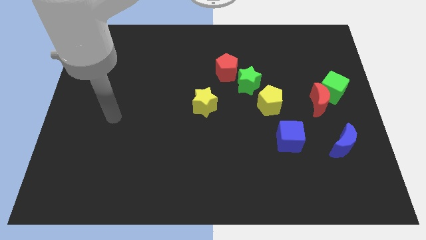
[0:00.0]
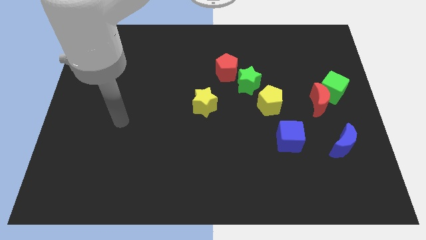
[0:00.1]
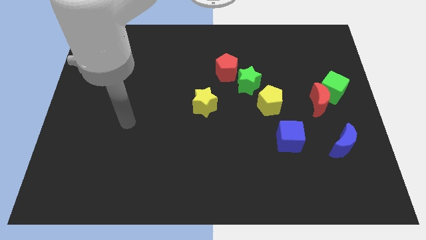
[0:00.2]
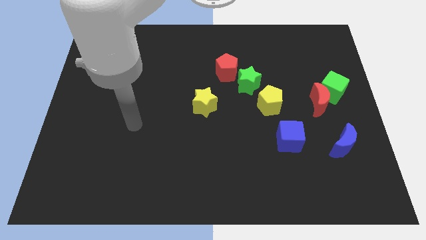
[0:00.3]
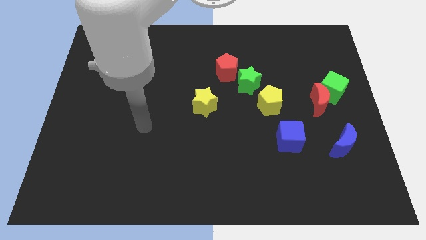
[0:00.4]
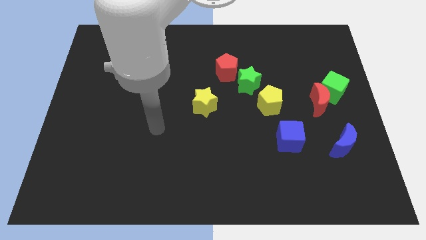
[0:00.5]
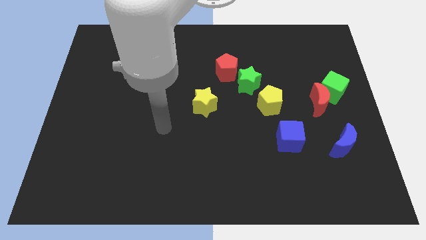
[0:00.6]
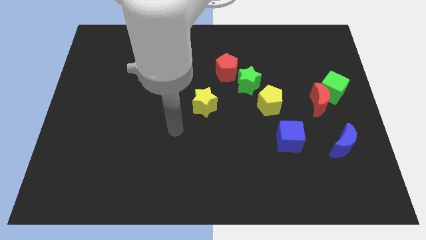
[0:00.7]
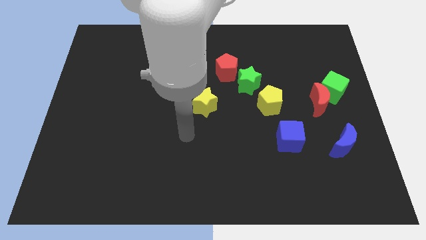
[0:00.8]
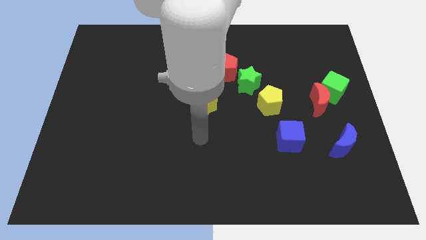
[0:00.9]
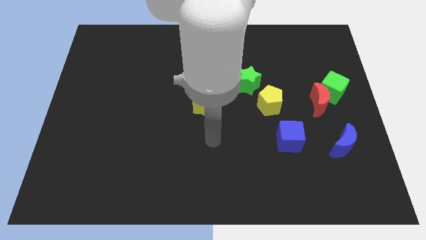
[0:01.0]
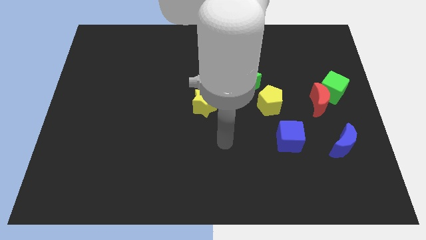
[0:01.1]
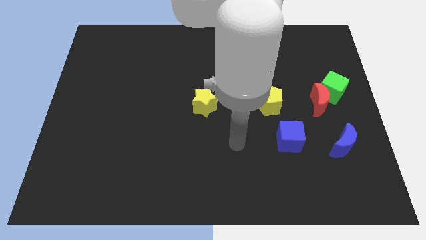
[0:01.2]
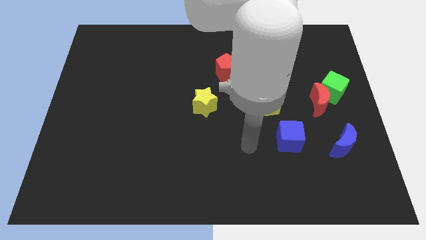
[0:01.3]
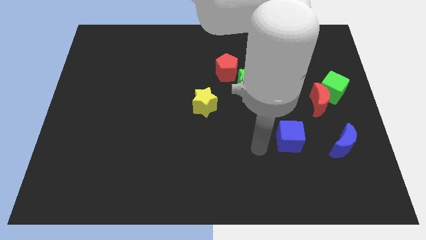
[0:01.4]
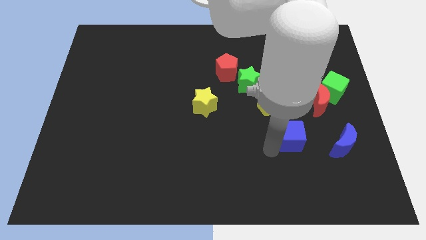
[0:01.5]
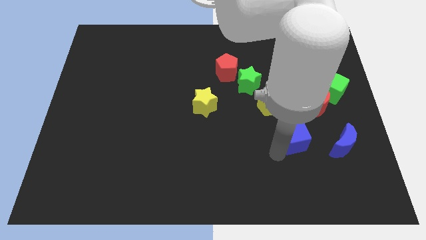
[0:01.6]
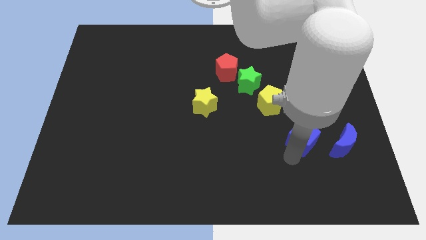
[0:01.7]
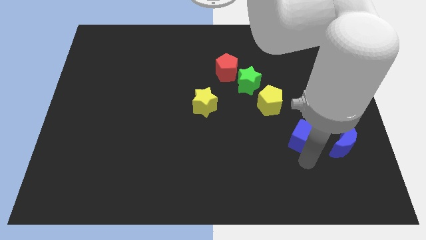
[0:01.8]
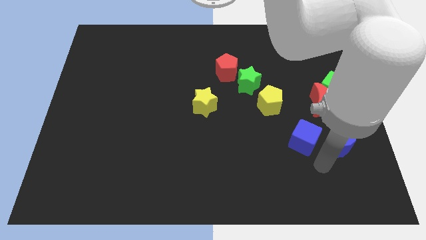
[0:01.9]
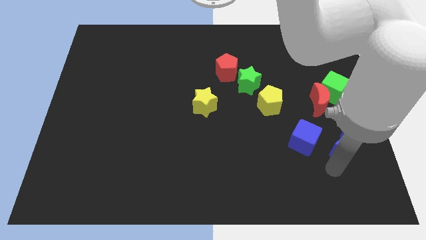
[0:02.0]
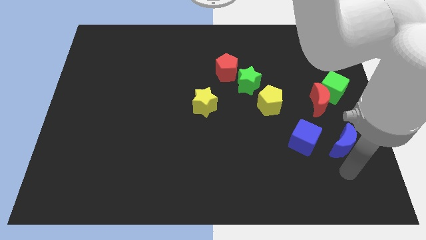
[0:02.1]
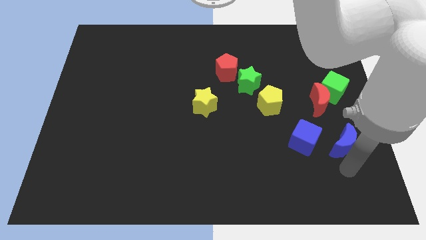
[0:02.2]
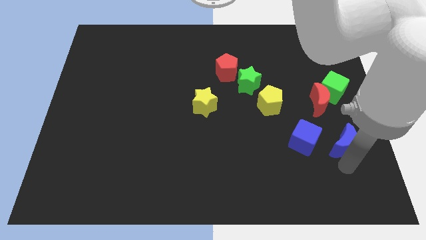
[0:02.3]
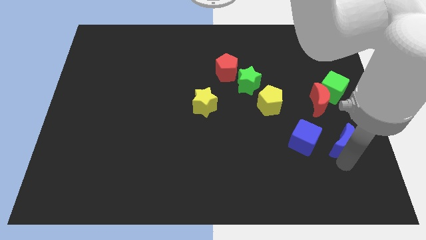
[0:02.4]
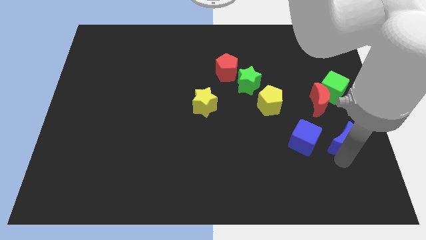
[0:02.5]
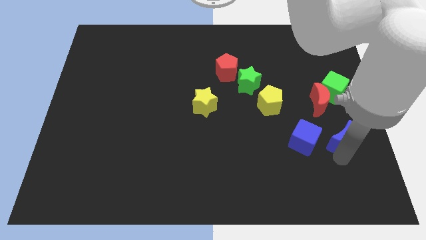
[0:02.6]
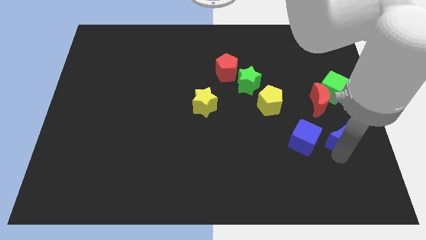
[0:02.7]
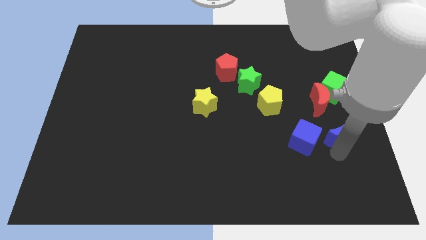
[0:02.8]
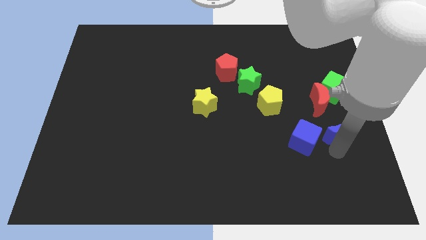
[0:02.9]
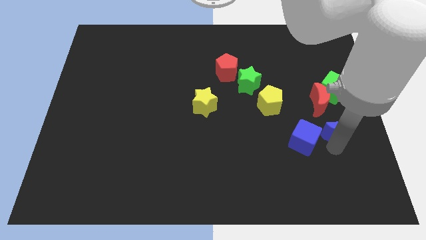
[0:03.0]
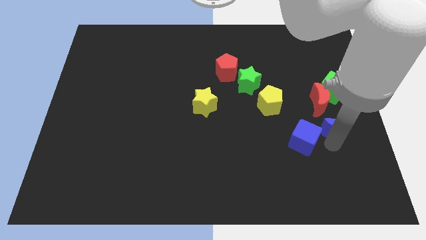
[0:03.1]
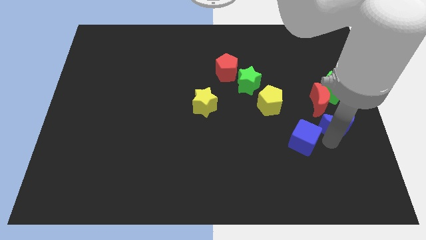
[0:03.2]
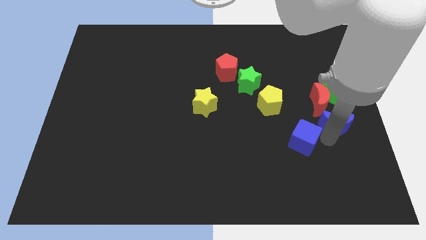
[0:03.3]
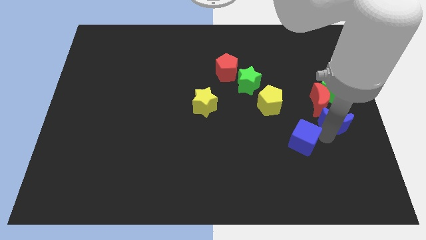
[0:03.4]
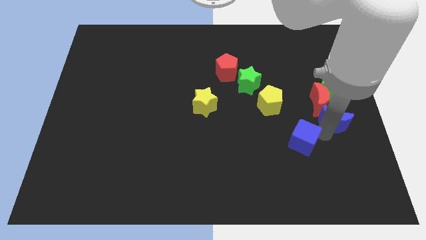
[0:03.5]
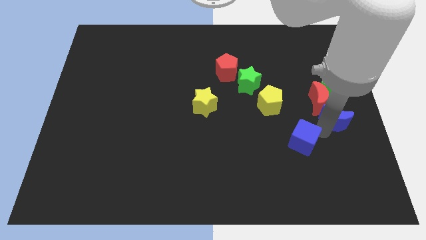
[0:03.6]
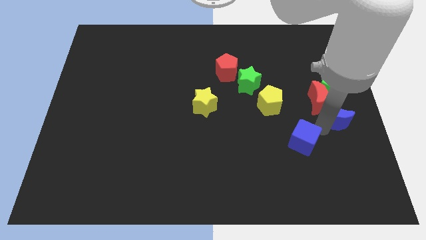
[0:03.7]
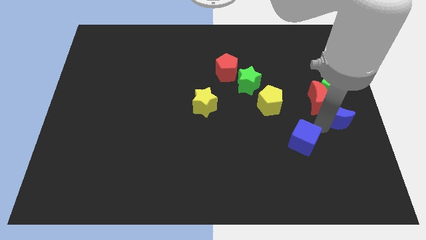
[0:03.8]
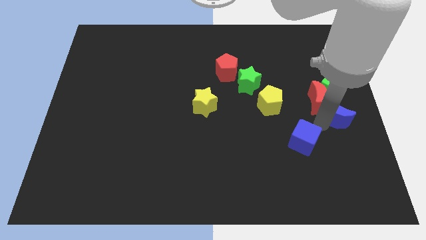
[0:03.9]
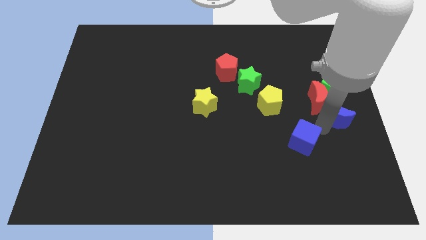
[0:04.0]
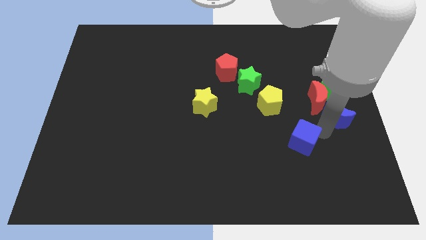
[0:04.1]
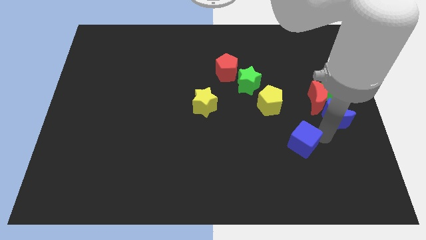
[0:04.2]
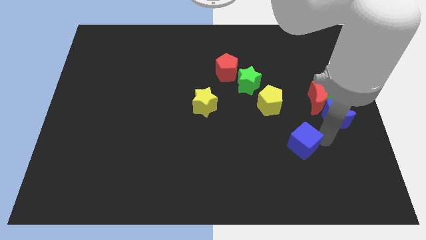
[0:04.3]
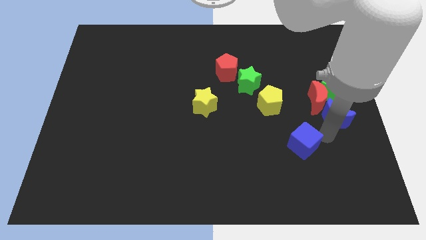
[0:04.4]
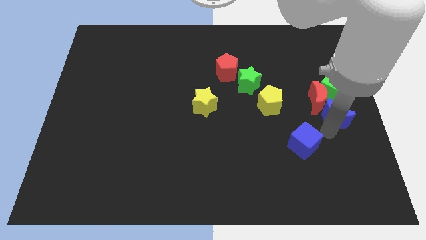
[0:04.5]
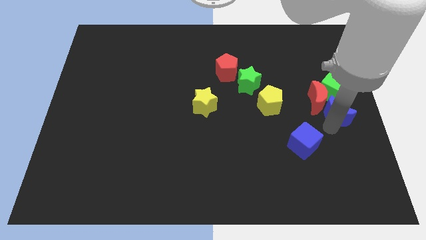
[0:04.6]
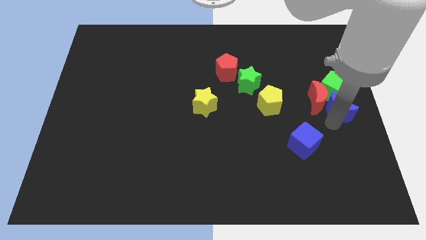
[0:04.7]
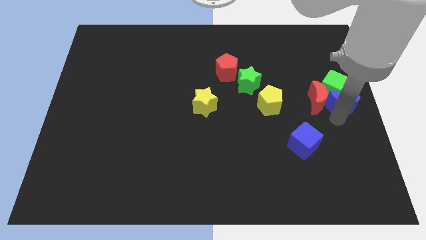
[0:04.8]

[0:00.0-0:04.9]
push the blue moon close to the green cube

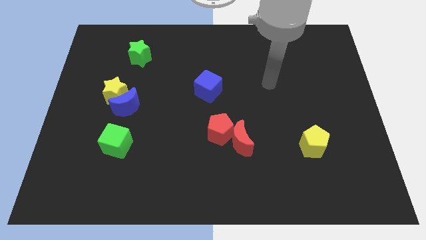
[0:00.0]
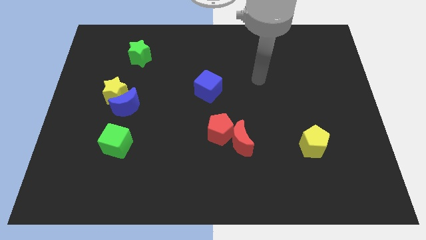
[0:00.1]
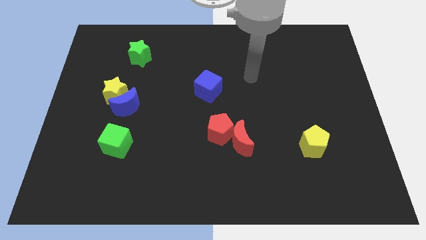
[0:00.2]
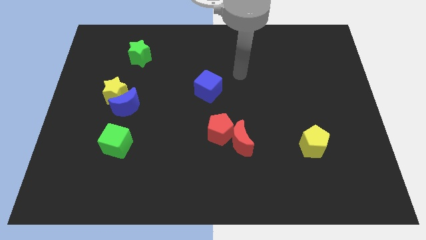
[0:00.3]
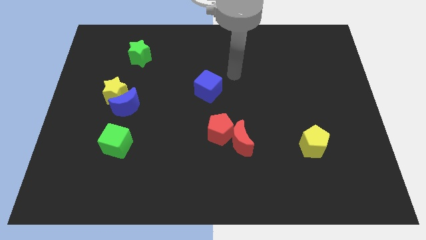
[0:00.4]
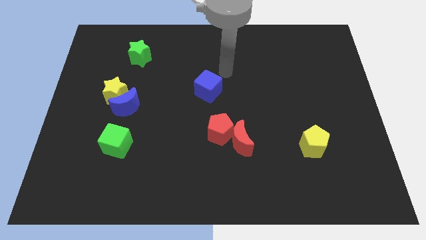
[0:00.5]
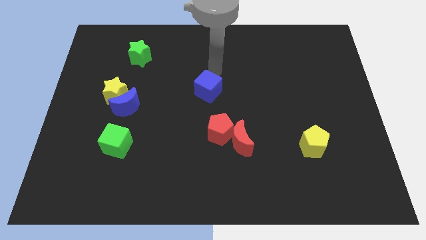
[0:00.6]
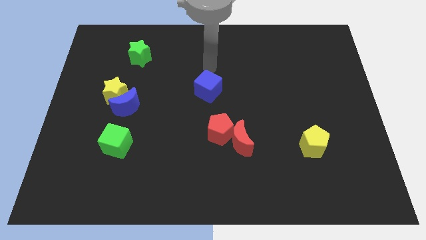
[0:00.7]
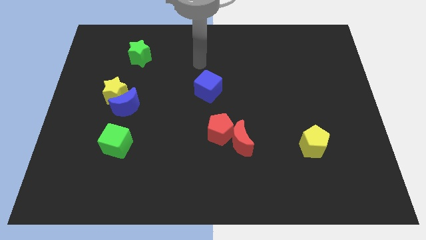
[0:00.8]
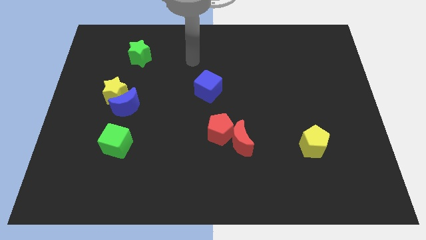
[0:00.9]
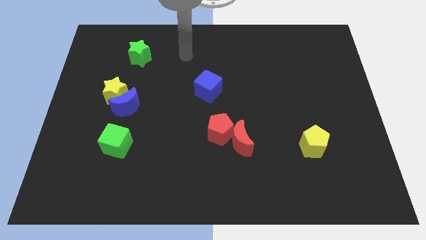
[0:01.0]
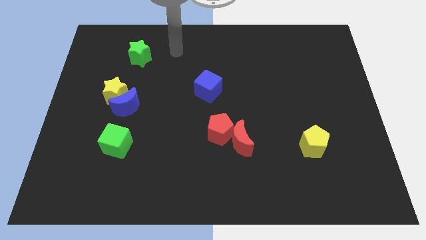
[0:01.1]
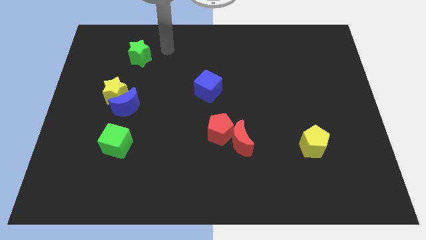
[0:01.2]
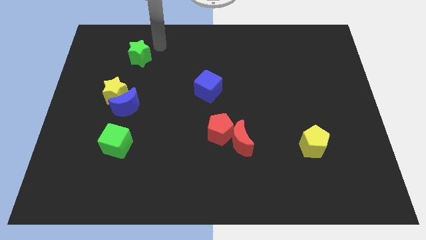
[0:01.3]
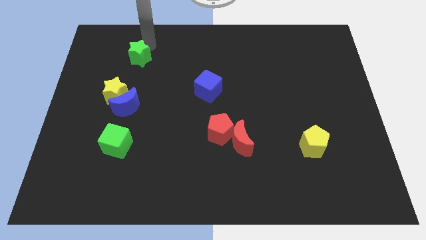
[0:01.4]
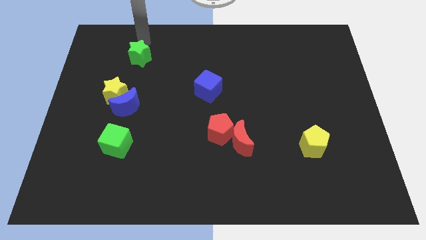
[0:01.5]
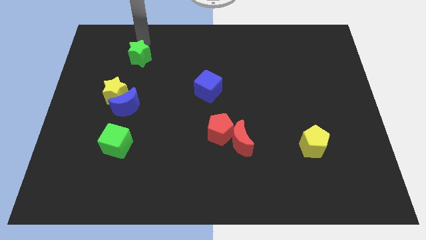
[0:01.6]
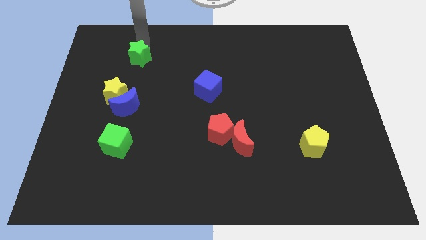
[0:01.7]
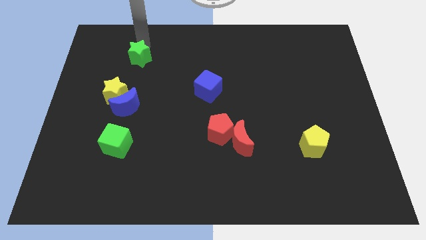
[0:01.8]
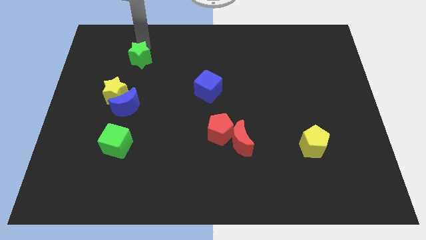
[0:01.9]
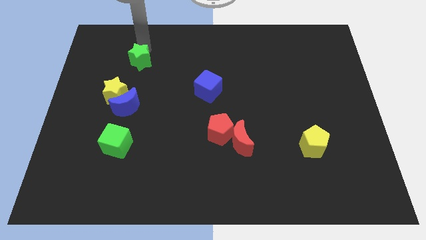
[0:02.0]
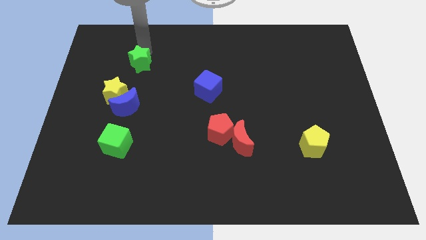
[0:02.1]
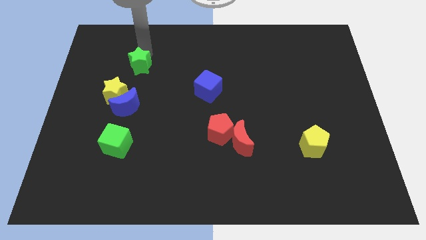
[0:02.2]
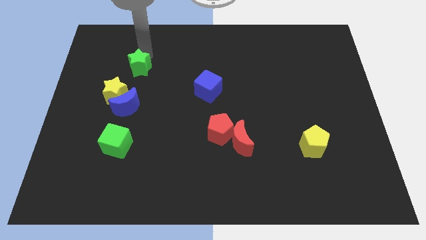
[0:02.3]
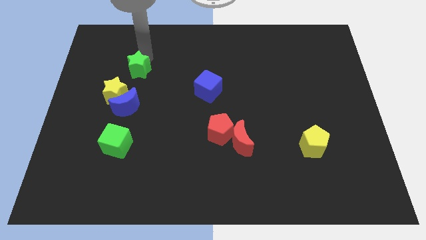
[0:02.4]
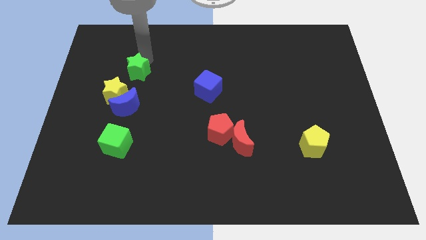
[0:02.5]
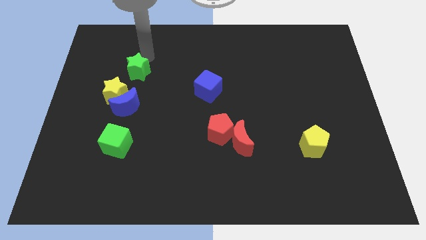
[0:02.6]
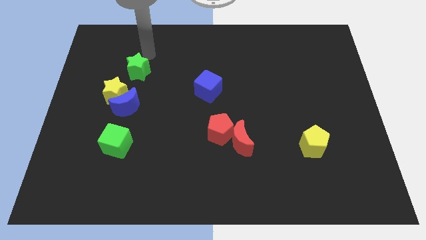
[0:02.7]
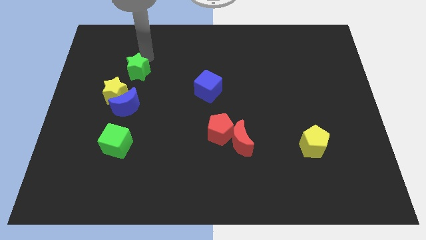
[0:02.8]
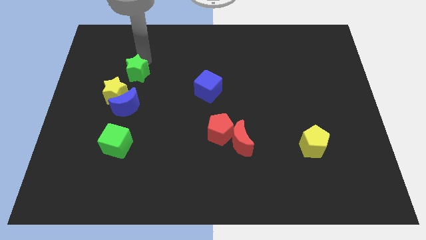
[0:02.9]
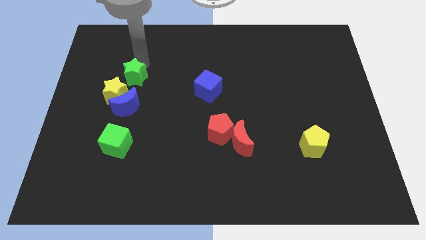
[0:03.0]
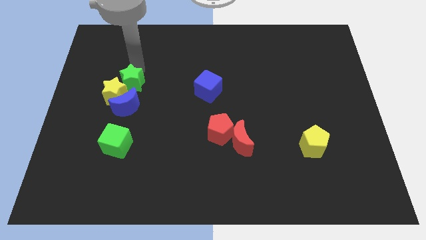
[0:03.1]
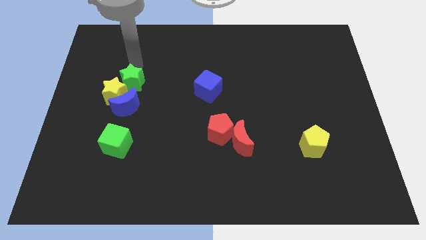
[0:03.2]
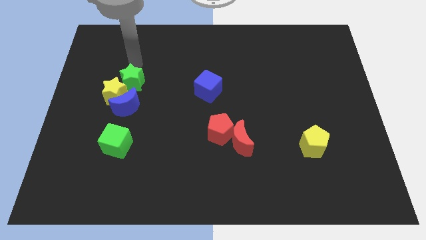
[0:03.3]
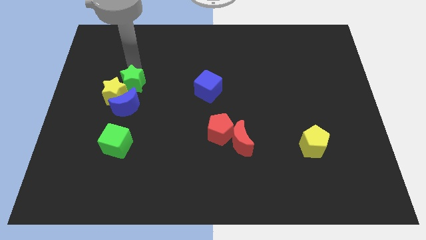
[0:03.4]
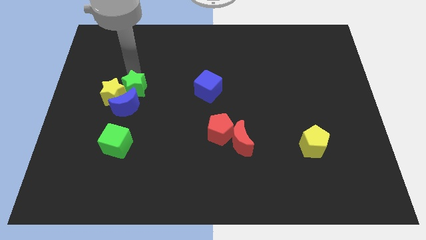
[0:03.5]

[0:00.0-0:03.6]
put the green star close to the blue moon
